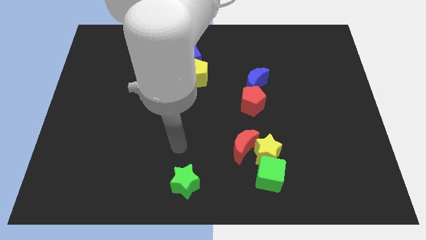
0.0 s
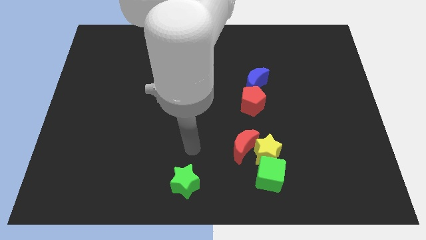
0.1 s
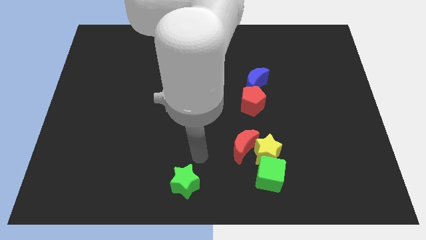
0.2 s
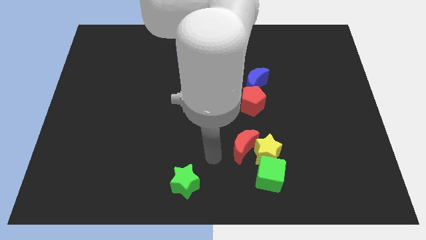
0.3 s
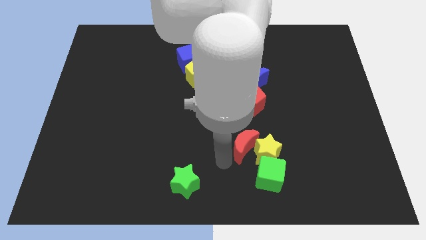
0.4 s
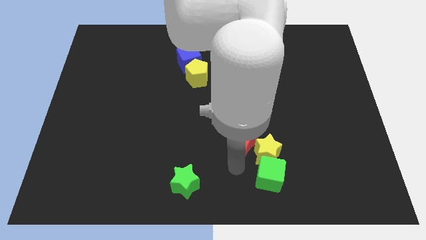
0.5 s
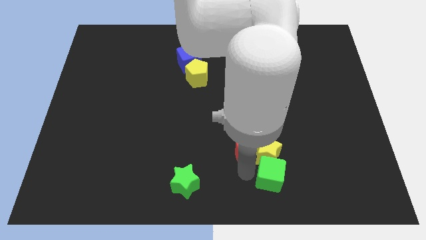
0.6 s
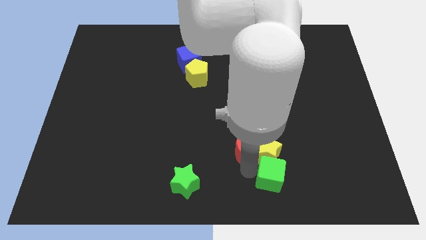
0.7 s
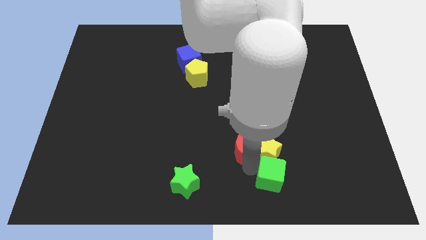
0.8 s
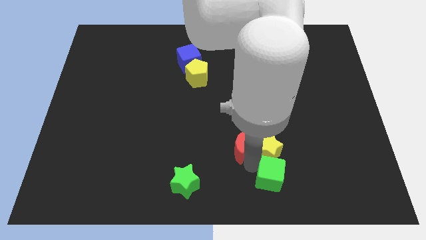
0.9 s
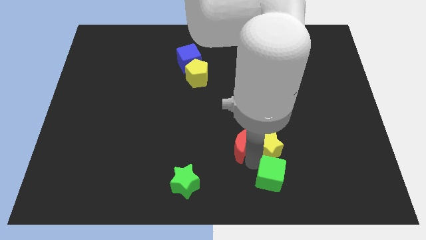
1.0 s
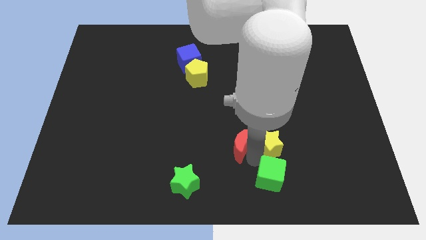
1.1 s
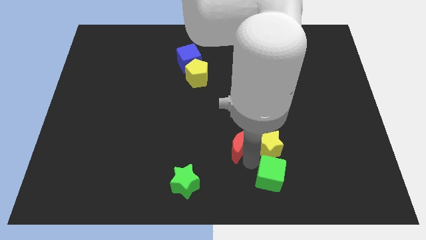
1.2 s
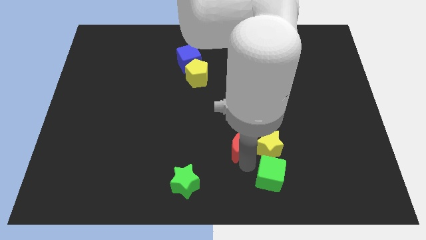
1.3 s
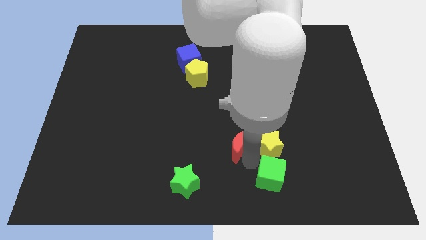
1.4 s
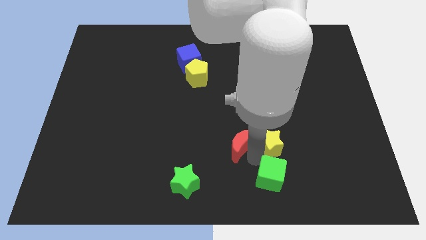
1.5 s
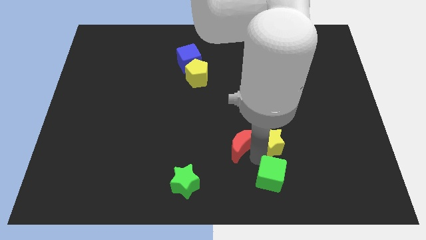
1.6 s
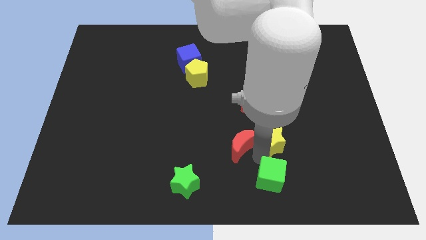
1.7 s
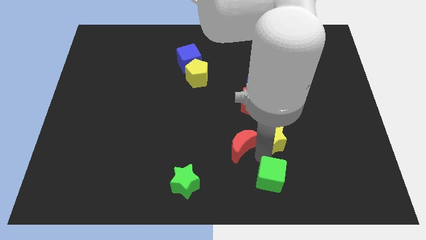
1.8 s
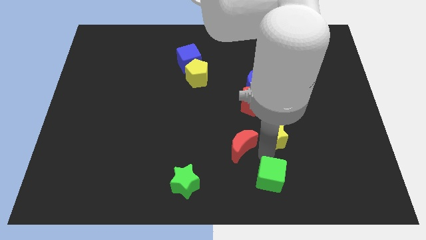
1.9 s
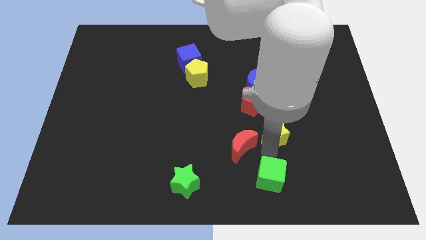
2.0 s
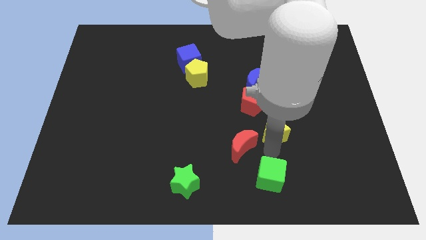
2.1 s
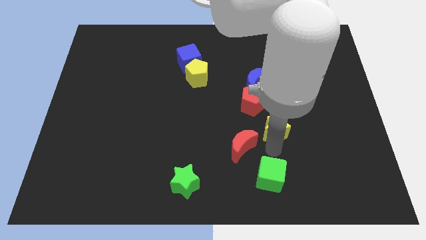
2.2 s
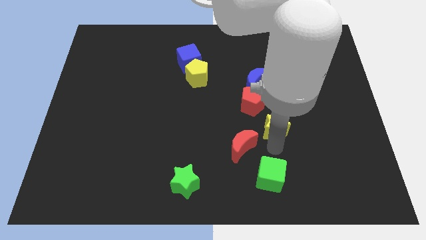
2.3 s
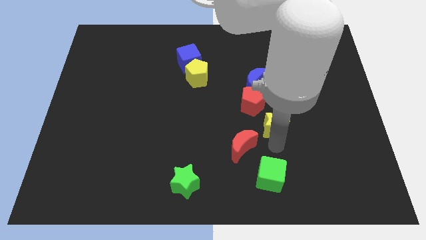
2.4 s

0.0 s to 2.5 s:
move the yellow star away from the red moon and green cube

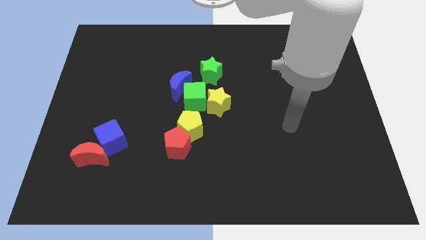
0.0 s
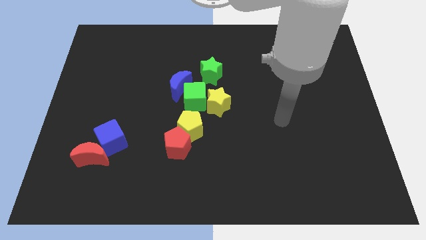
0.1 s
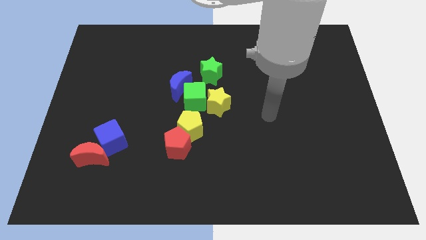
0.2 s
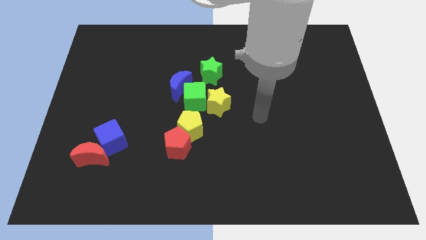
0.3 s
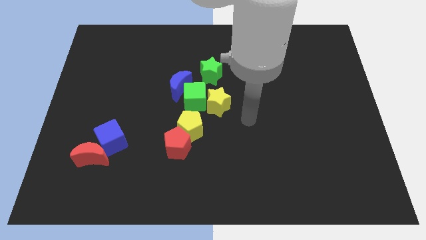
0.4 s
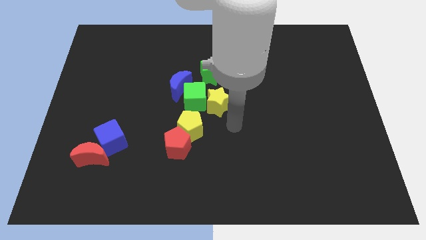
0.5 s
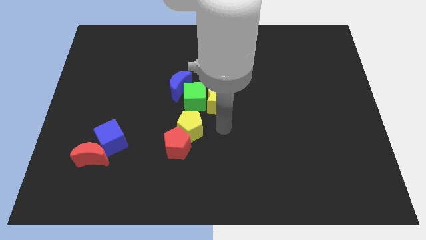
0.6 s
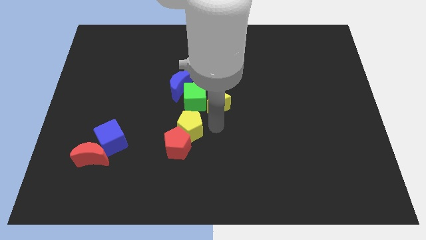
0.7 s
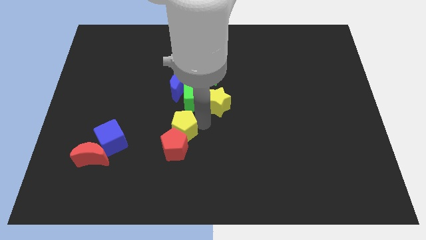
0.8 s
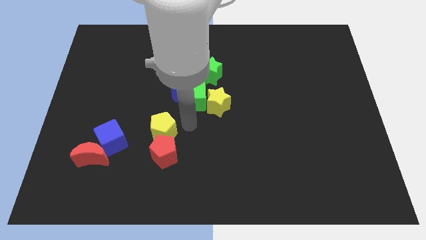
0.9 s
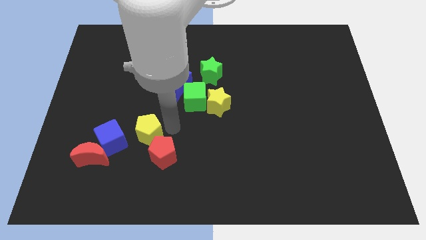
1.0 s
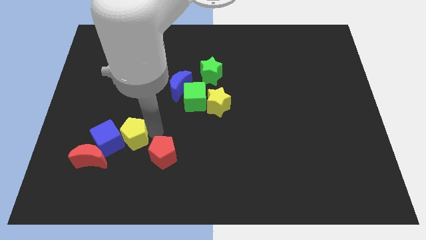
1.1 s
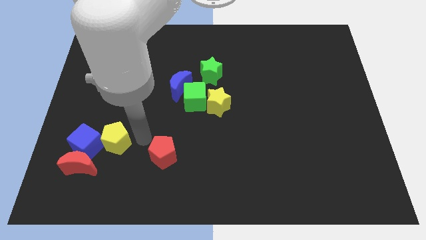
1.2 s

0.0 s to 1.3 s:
pull the red pentagon apart from the yellow pentagon

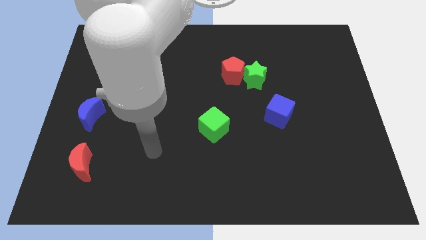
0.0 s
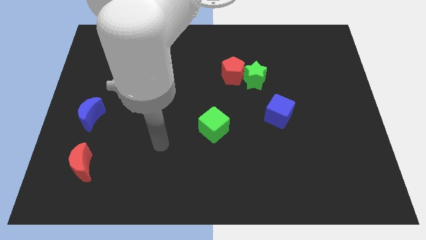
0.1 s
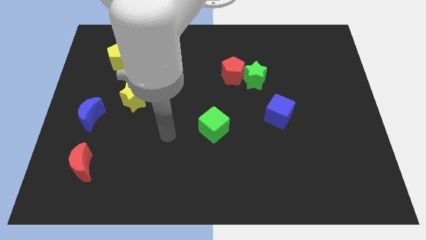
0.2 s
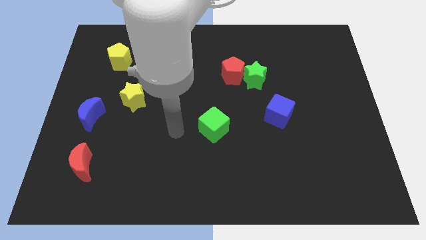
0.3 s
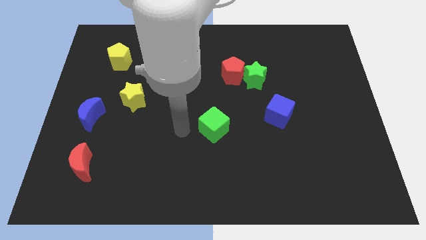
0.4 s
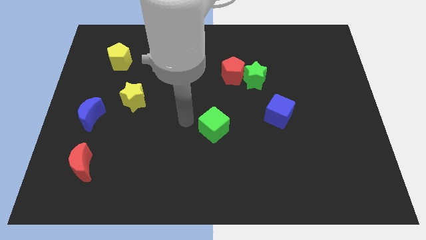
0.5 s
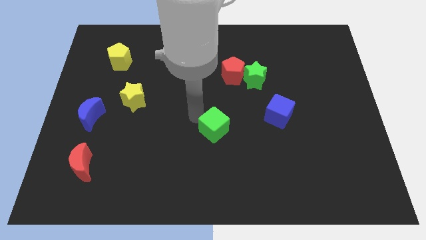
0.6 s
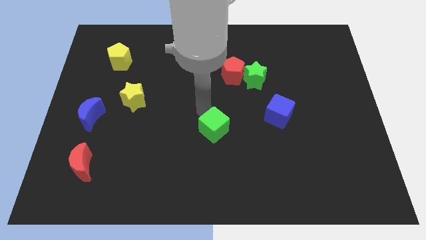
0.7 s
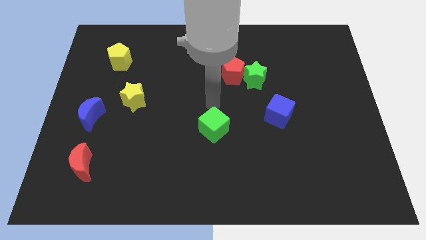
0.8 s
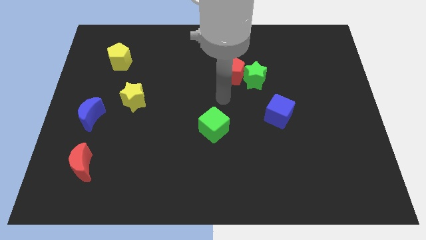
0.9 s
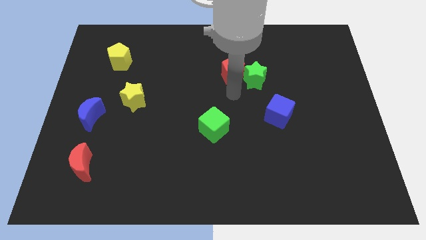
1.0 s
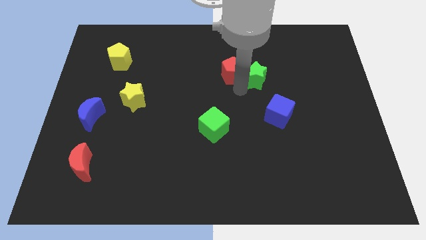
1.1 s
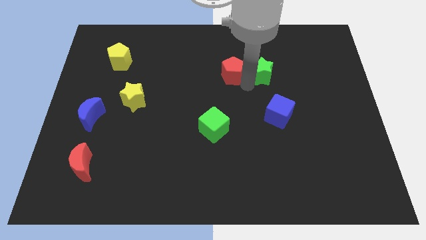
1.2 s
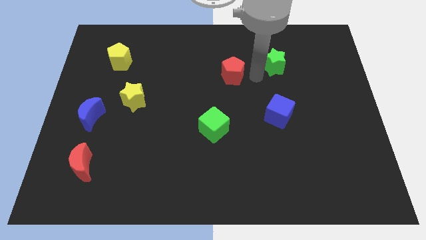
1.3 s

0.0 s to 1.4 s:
move the red pentagon away from the green star

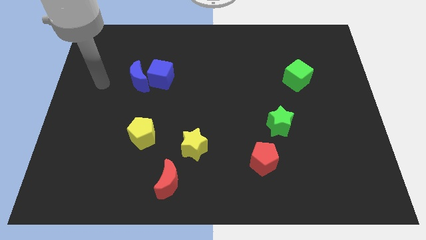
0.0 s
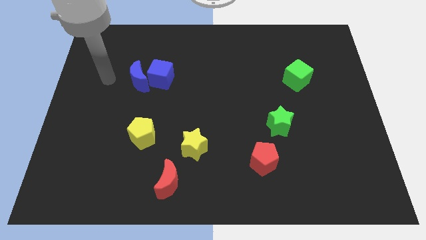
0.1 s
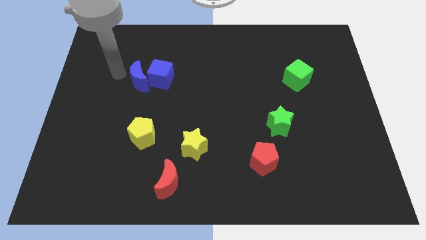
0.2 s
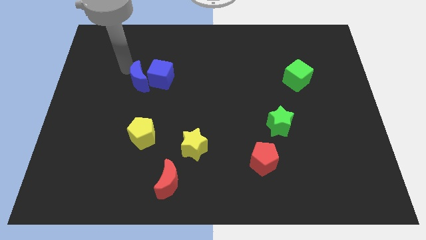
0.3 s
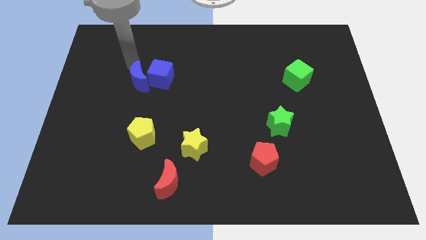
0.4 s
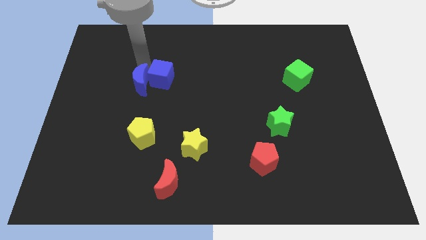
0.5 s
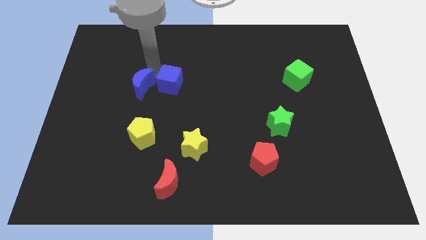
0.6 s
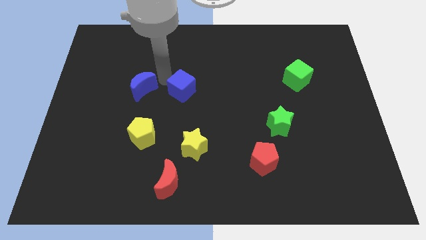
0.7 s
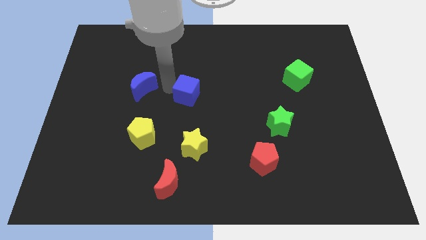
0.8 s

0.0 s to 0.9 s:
separate the blue moon from the blue cube

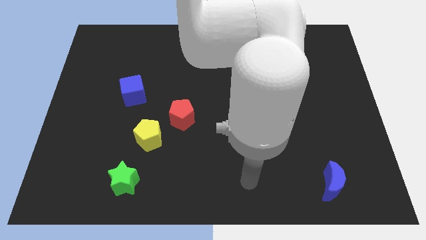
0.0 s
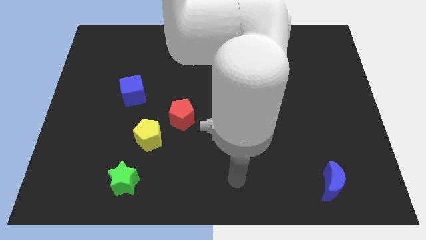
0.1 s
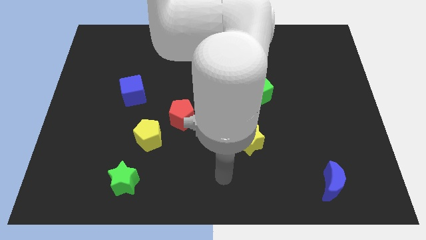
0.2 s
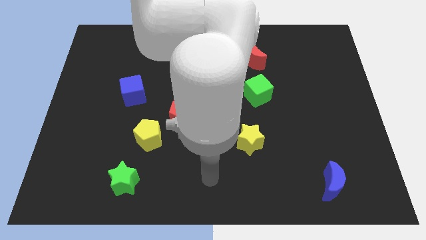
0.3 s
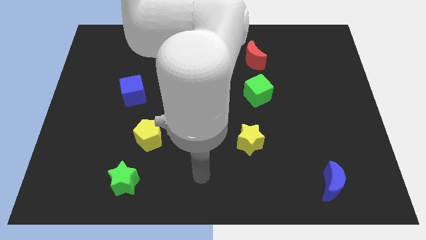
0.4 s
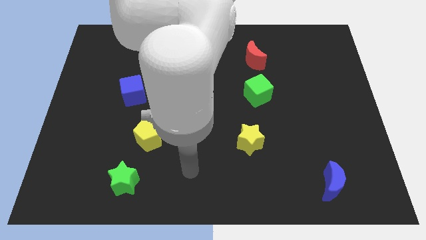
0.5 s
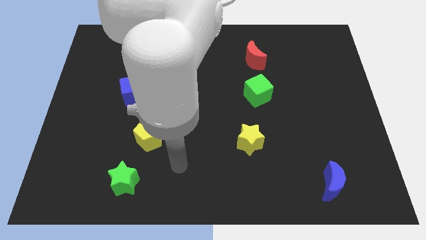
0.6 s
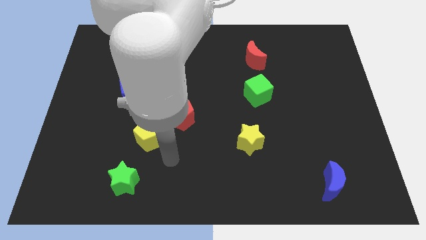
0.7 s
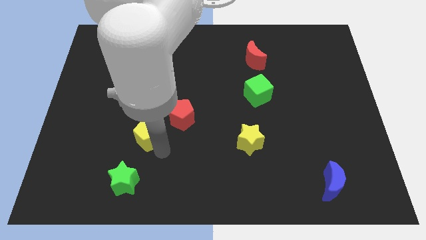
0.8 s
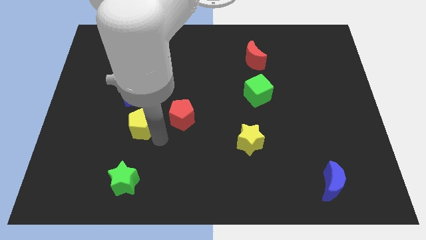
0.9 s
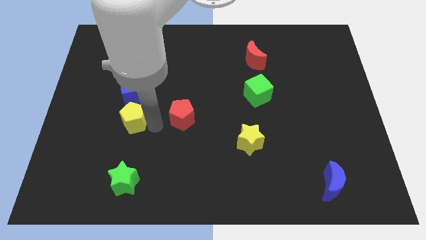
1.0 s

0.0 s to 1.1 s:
separate the red pentagon from the yellow pentagon

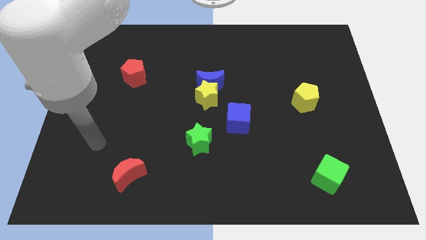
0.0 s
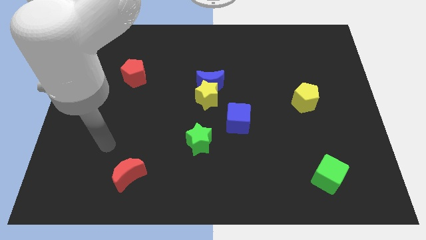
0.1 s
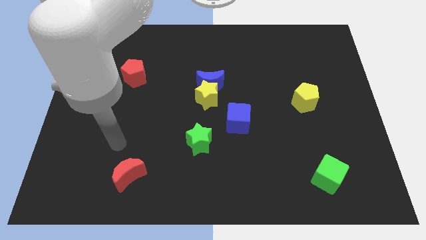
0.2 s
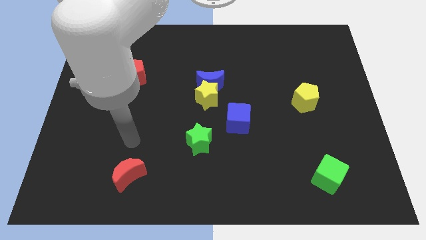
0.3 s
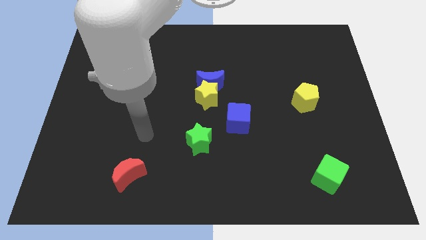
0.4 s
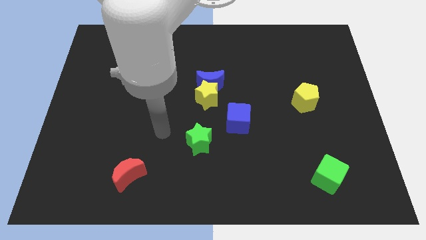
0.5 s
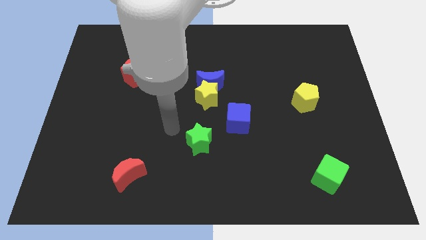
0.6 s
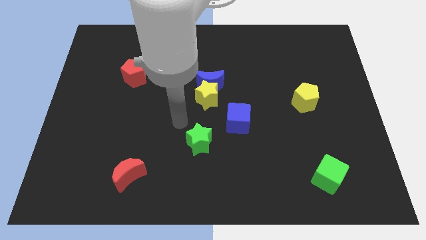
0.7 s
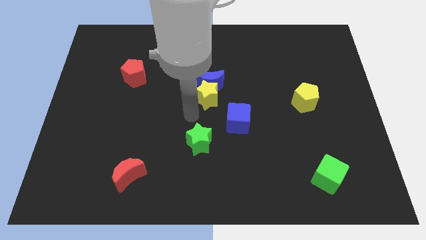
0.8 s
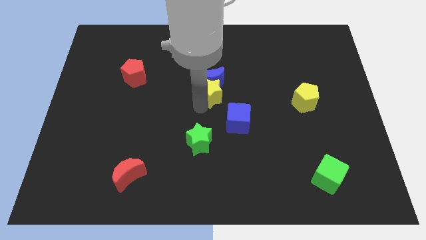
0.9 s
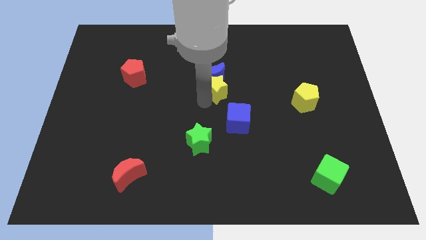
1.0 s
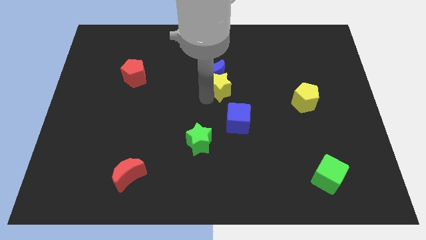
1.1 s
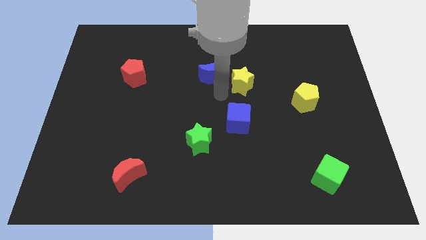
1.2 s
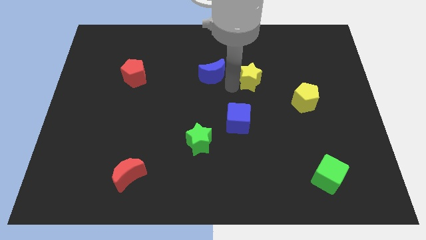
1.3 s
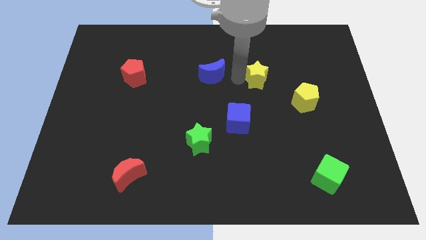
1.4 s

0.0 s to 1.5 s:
move the blue moon away from the yellow star

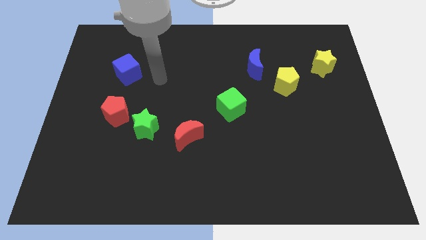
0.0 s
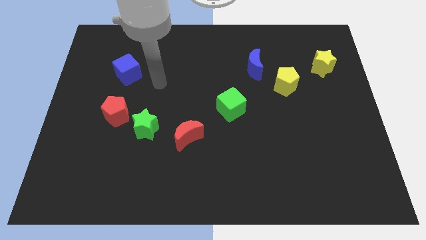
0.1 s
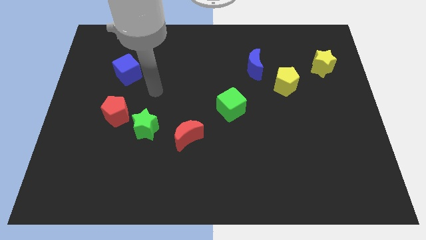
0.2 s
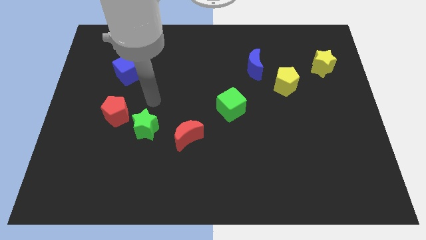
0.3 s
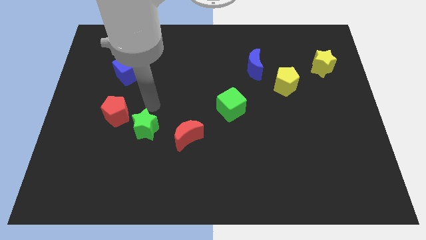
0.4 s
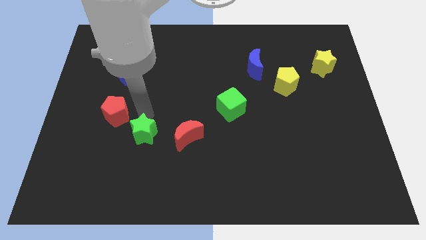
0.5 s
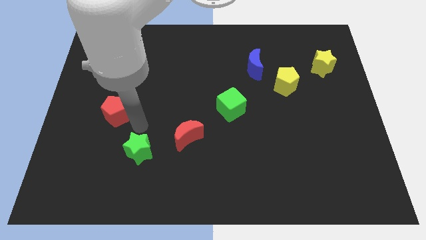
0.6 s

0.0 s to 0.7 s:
pull the red pentagon apart from the green star
